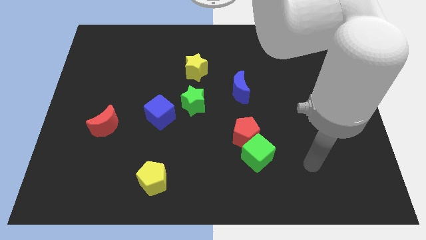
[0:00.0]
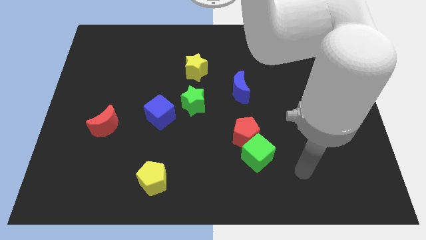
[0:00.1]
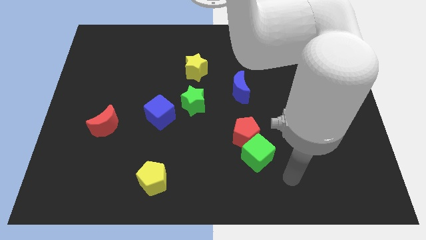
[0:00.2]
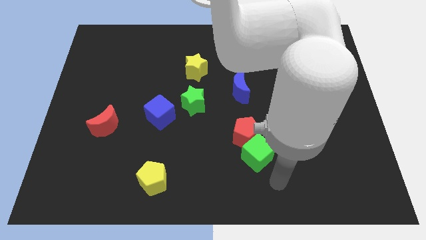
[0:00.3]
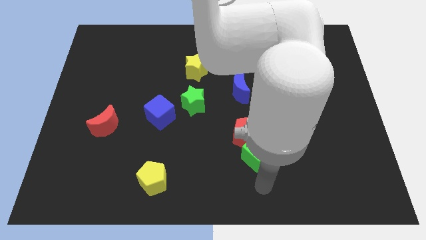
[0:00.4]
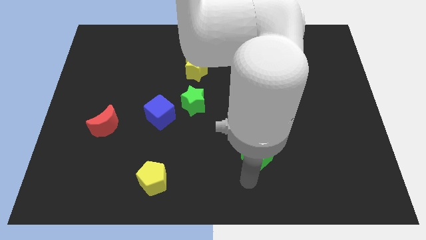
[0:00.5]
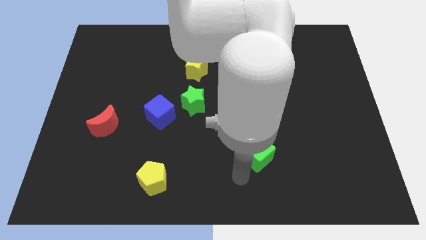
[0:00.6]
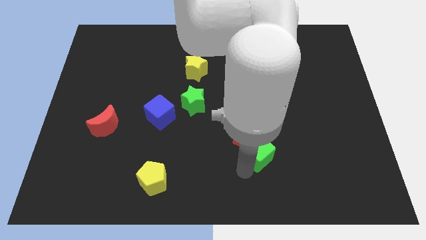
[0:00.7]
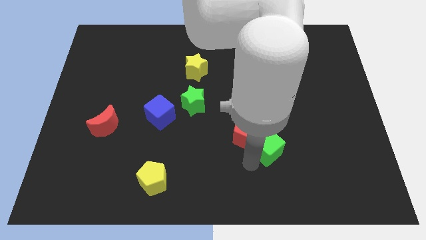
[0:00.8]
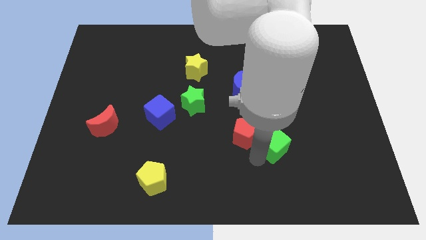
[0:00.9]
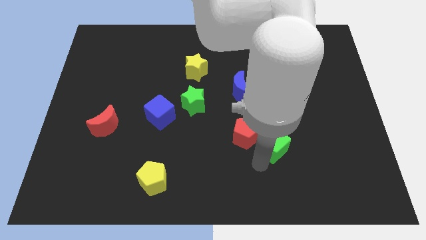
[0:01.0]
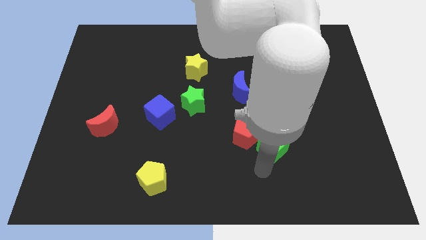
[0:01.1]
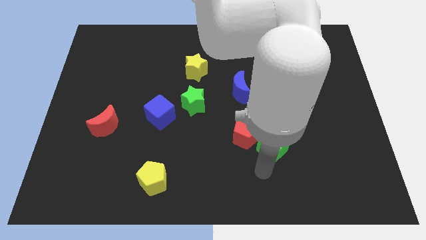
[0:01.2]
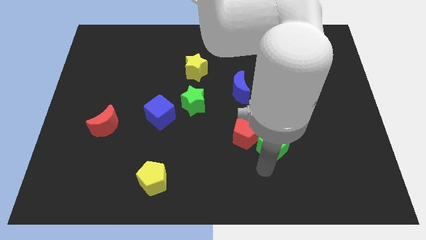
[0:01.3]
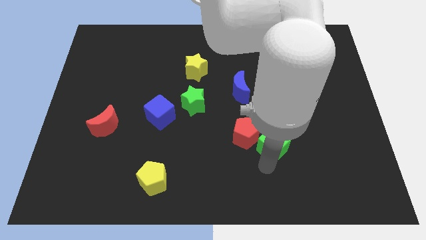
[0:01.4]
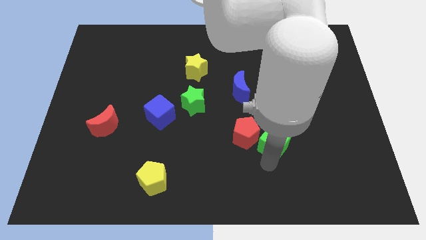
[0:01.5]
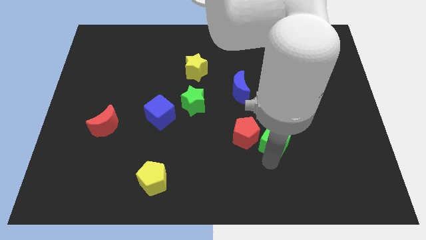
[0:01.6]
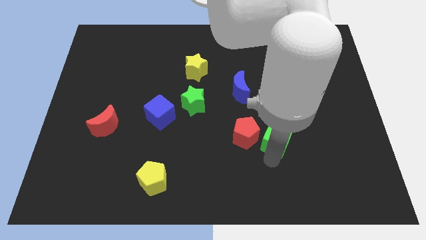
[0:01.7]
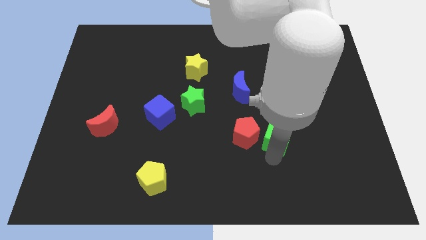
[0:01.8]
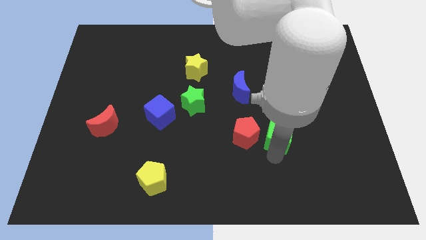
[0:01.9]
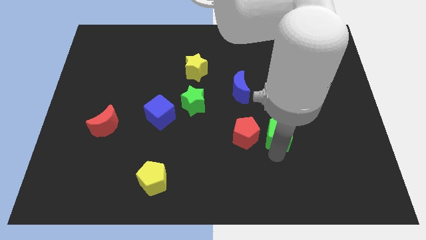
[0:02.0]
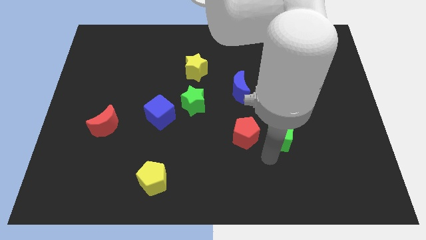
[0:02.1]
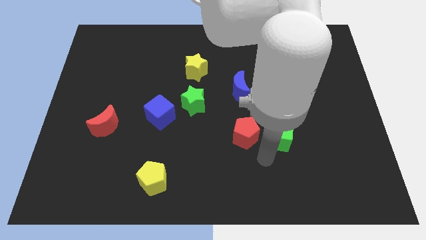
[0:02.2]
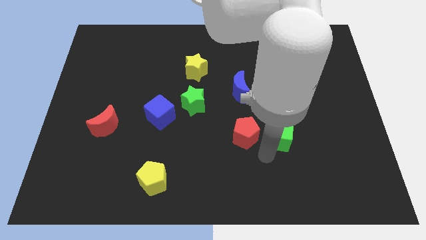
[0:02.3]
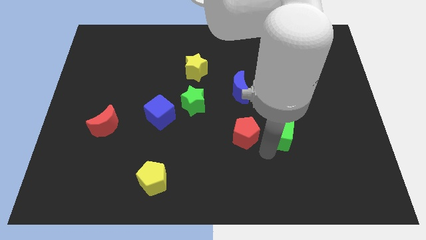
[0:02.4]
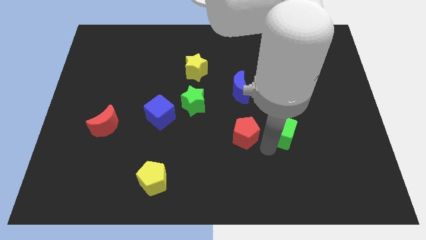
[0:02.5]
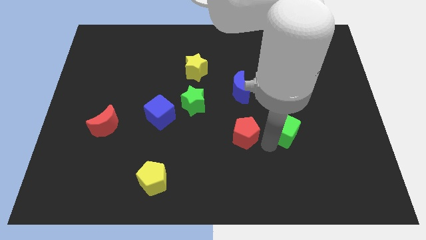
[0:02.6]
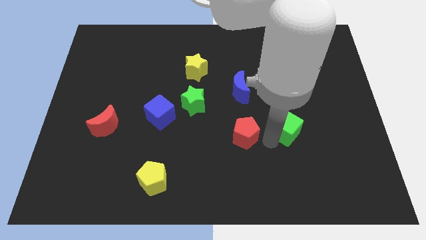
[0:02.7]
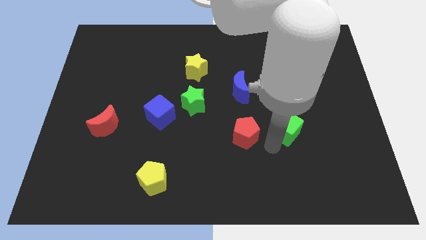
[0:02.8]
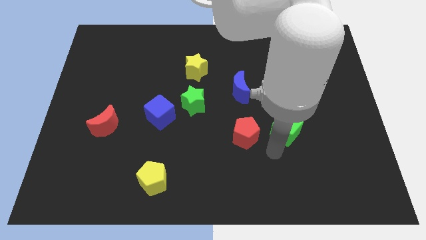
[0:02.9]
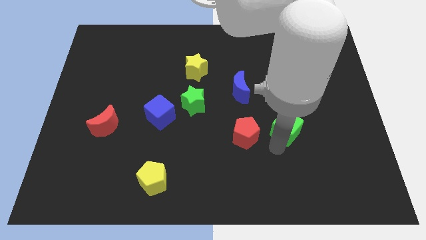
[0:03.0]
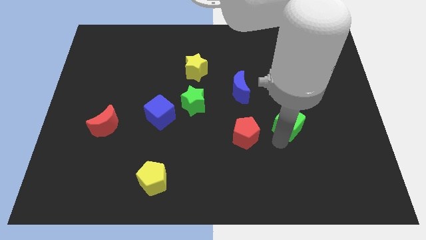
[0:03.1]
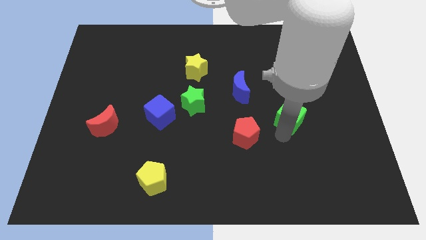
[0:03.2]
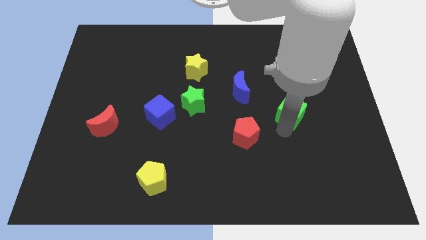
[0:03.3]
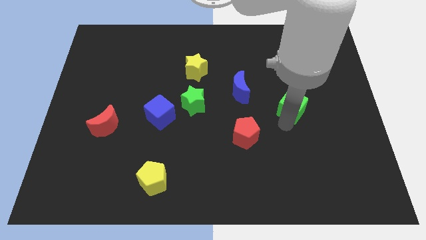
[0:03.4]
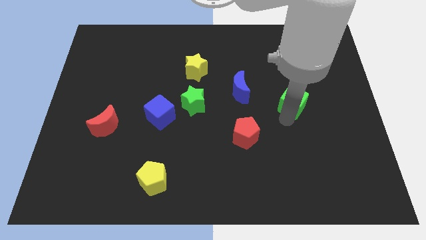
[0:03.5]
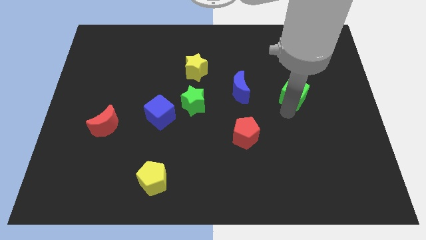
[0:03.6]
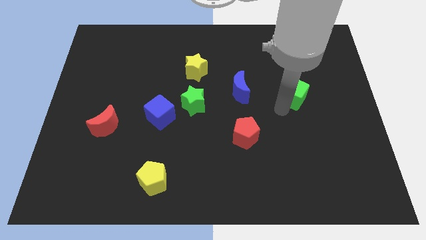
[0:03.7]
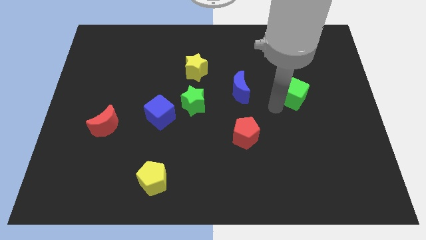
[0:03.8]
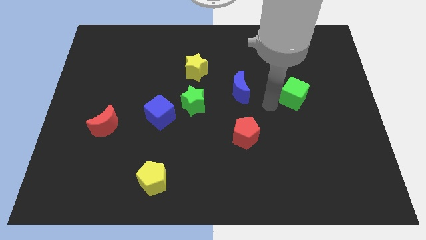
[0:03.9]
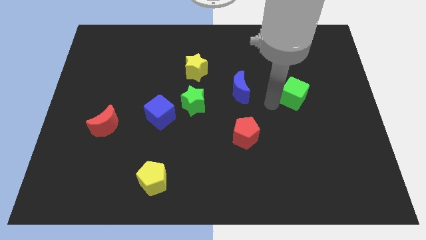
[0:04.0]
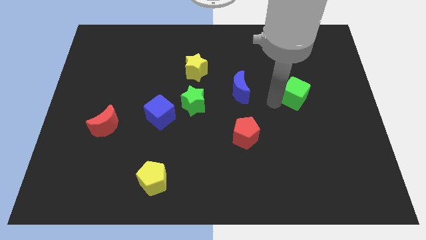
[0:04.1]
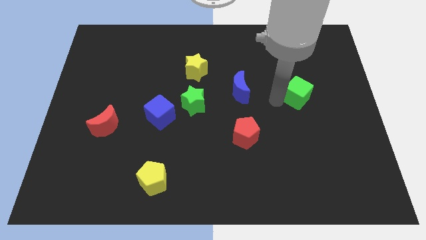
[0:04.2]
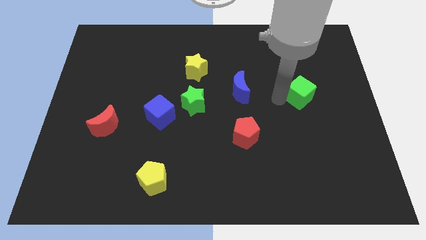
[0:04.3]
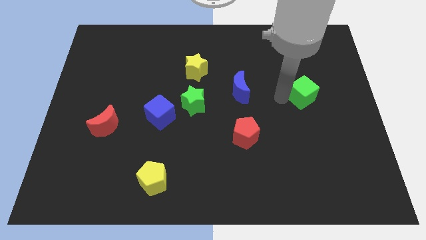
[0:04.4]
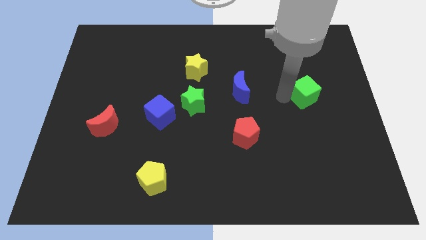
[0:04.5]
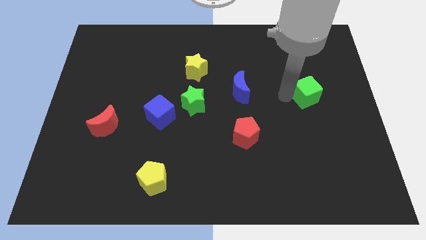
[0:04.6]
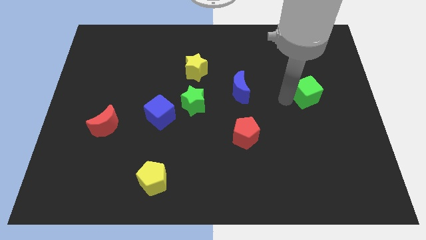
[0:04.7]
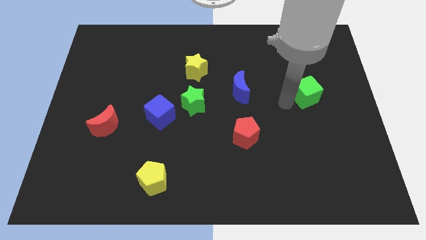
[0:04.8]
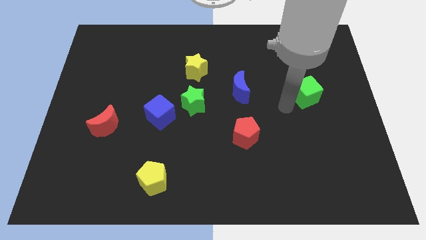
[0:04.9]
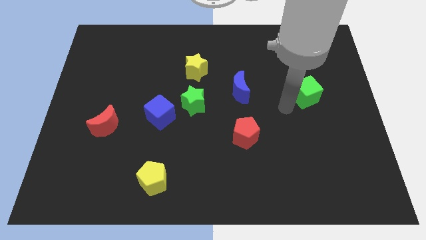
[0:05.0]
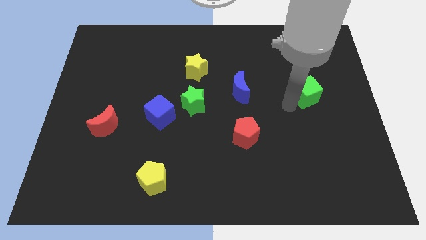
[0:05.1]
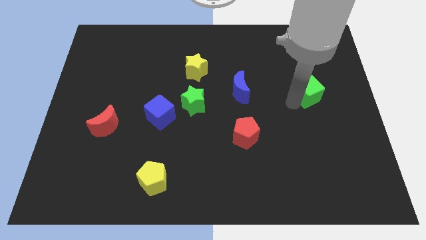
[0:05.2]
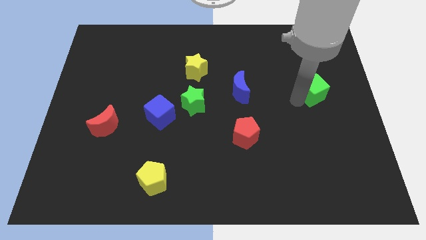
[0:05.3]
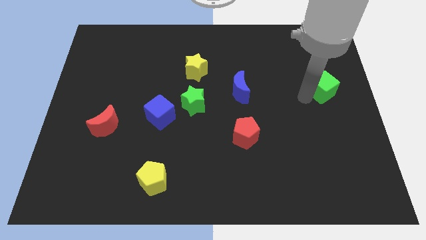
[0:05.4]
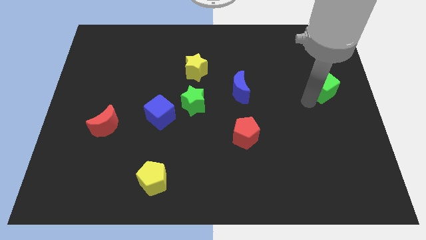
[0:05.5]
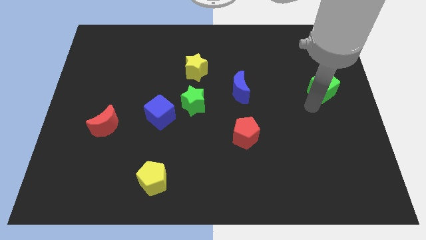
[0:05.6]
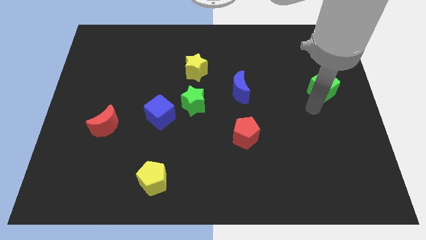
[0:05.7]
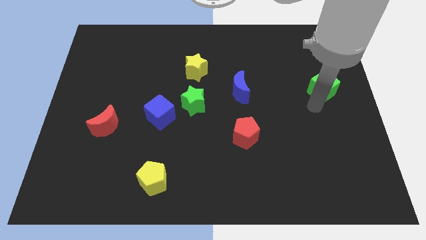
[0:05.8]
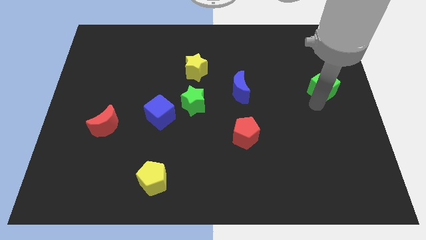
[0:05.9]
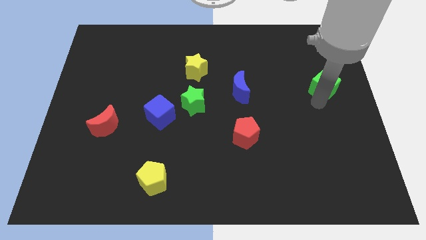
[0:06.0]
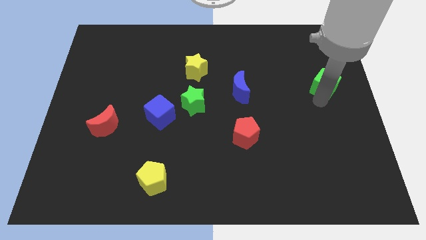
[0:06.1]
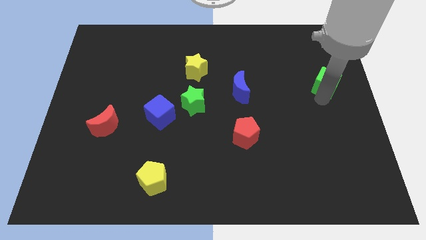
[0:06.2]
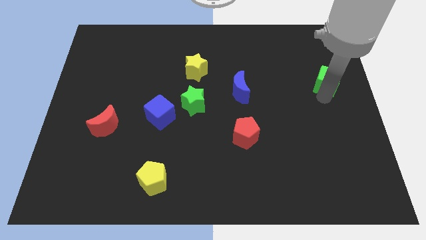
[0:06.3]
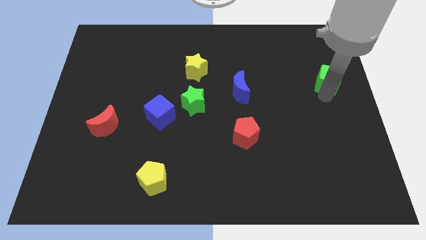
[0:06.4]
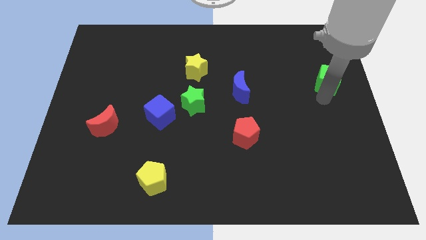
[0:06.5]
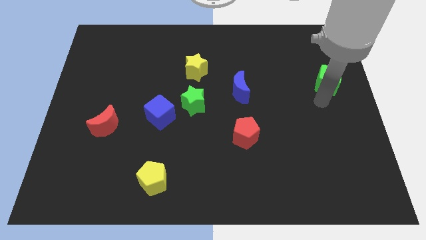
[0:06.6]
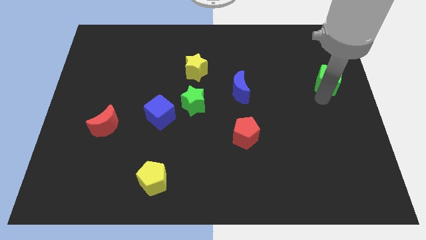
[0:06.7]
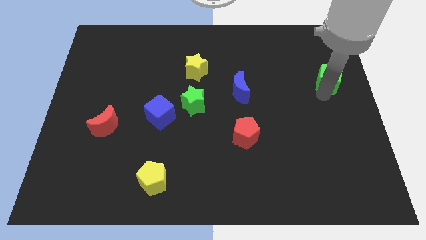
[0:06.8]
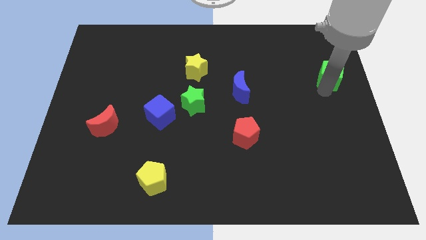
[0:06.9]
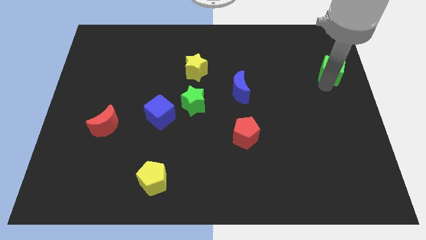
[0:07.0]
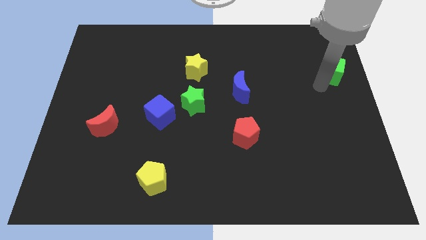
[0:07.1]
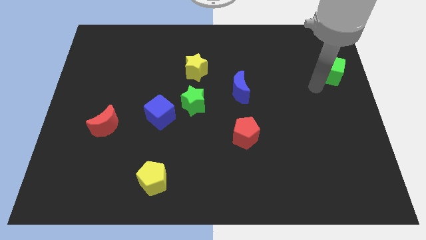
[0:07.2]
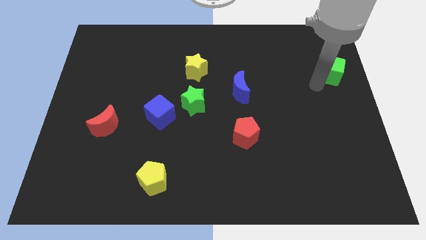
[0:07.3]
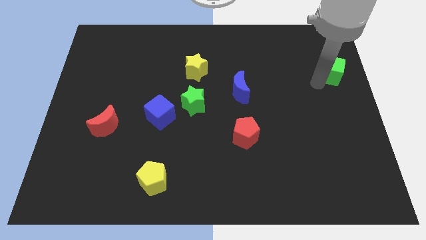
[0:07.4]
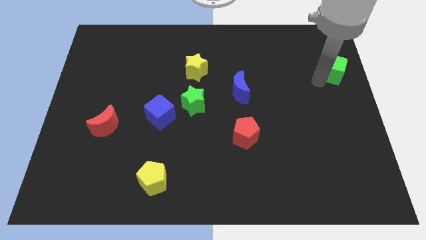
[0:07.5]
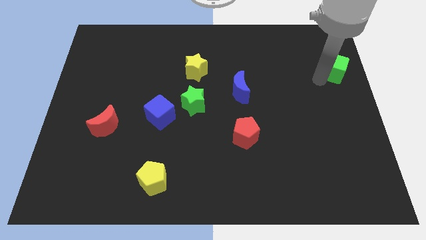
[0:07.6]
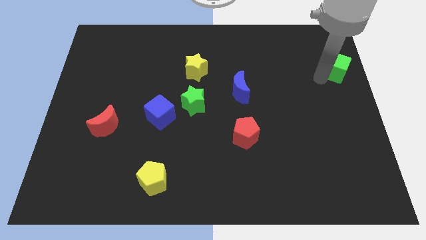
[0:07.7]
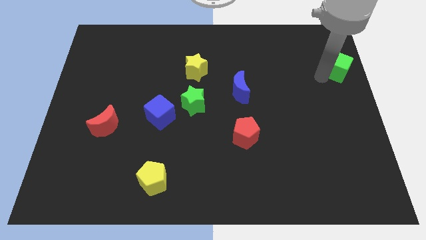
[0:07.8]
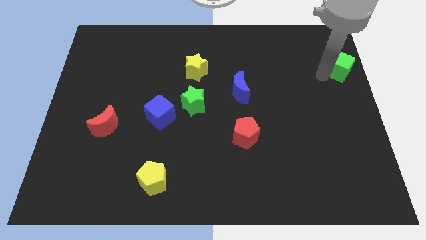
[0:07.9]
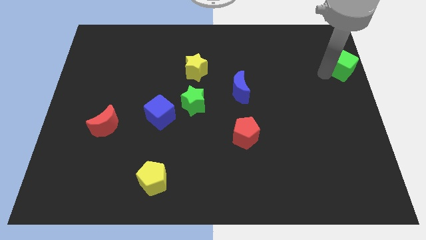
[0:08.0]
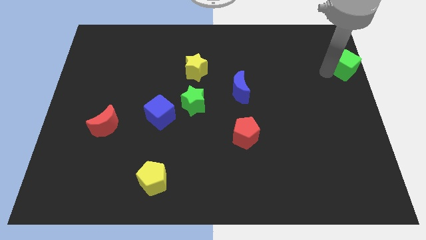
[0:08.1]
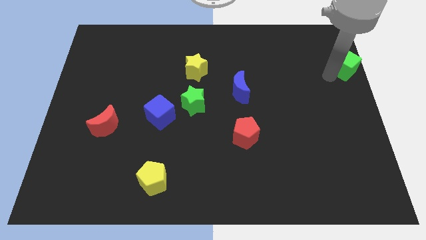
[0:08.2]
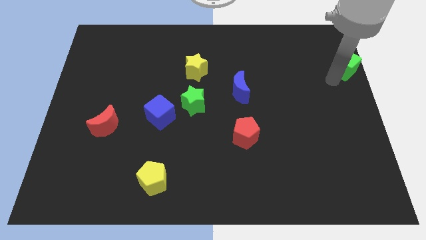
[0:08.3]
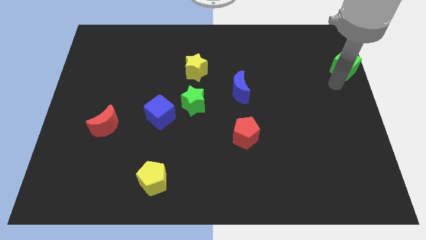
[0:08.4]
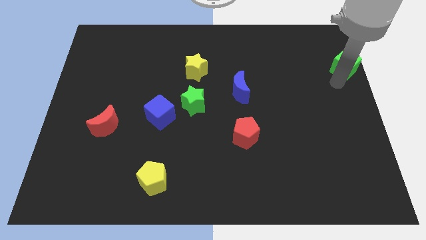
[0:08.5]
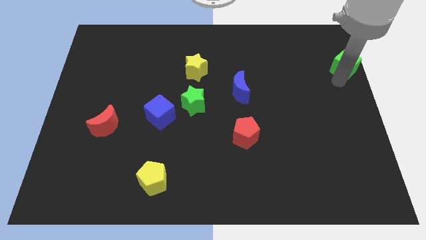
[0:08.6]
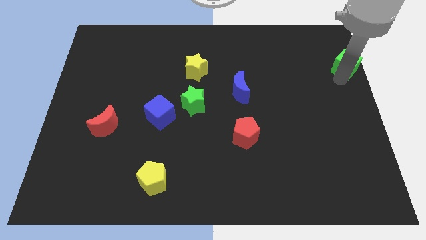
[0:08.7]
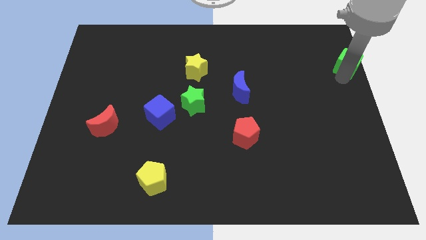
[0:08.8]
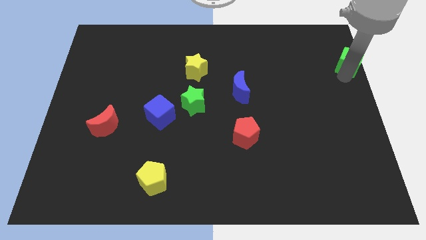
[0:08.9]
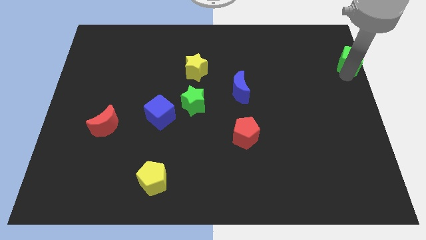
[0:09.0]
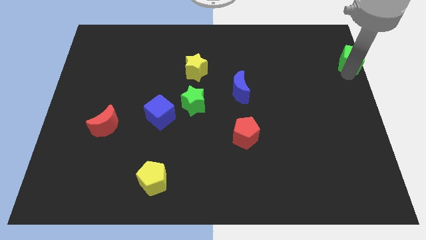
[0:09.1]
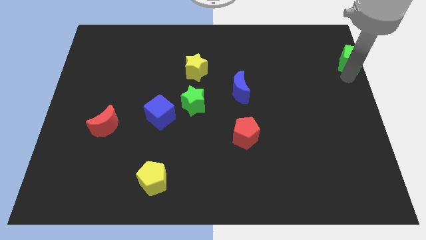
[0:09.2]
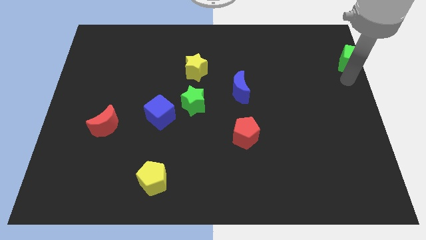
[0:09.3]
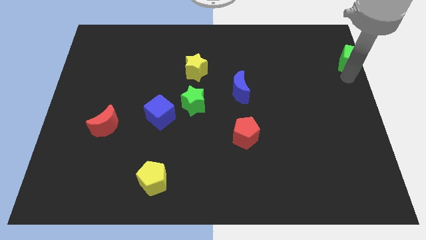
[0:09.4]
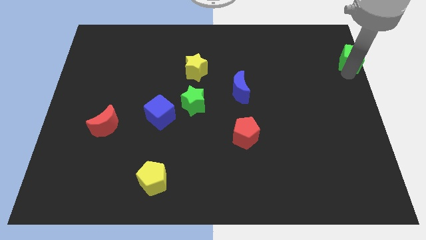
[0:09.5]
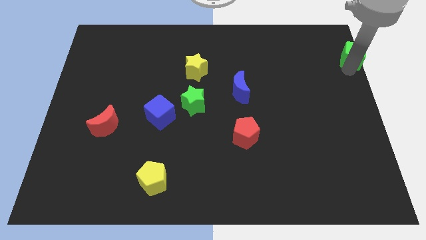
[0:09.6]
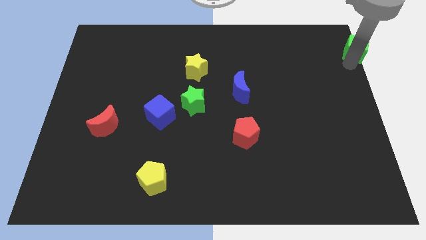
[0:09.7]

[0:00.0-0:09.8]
slide the green cube to the top right of the board
